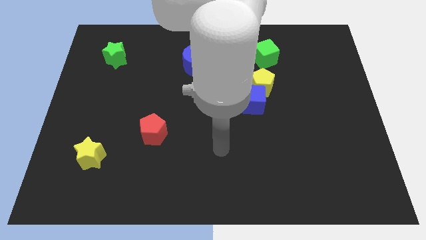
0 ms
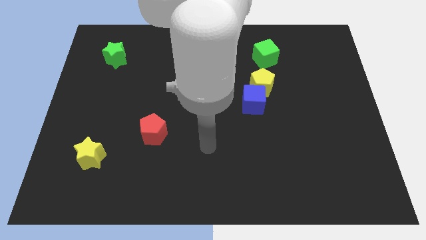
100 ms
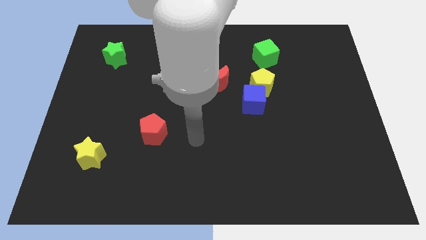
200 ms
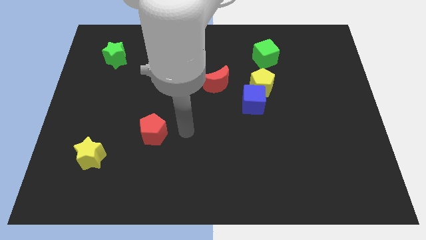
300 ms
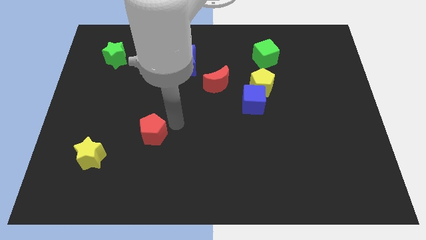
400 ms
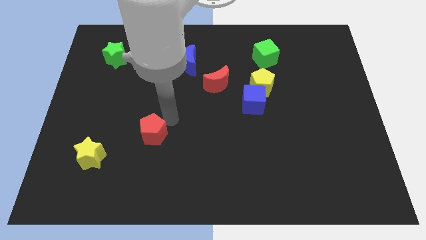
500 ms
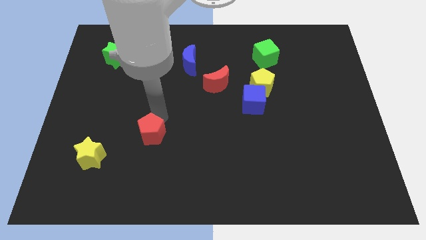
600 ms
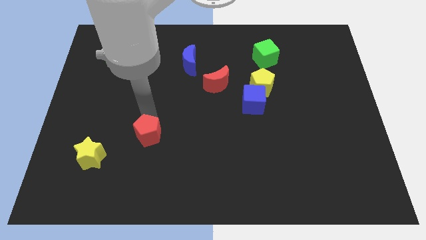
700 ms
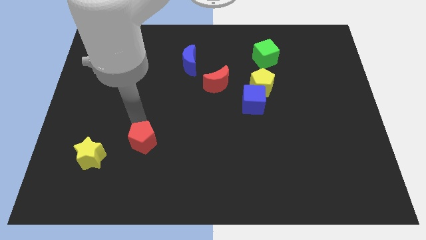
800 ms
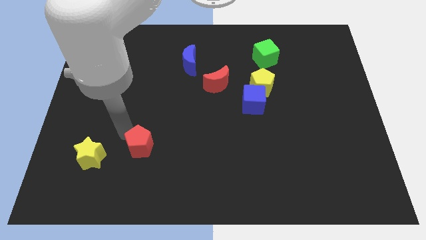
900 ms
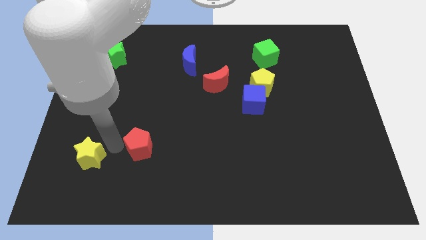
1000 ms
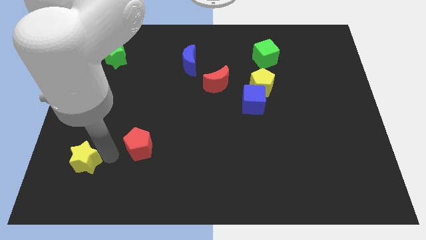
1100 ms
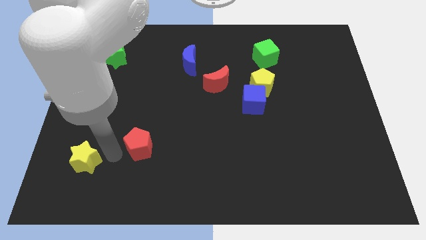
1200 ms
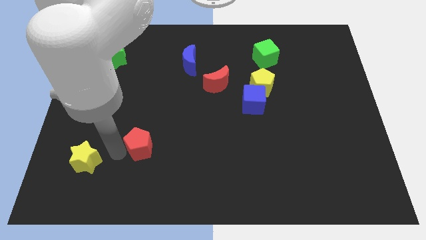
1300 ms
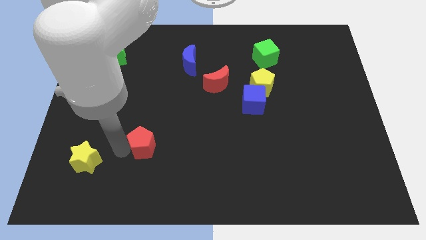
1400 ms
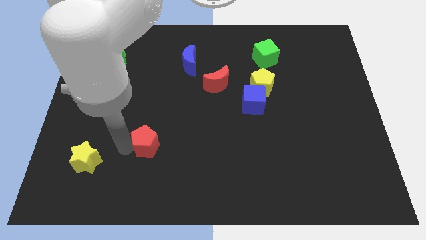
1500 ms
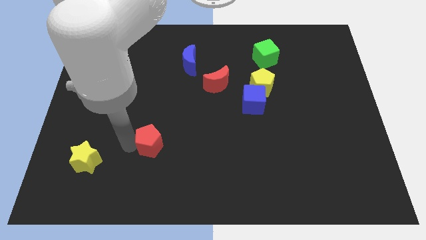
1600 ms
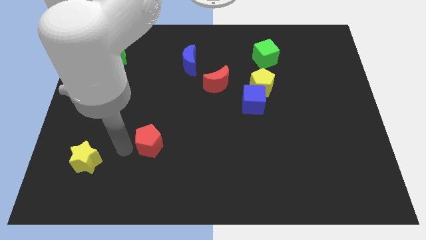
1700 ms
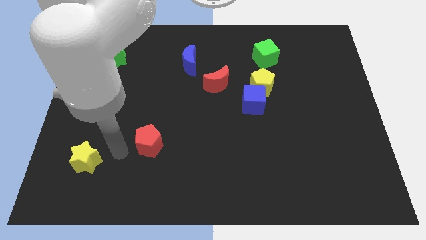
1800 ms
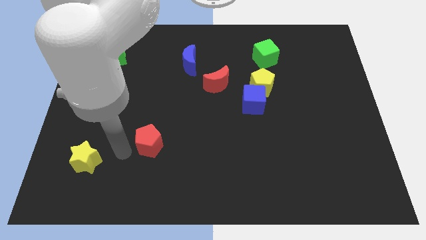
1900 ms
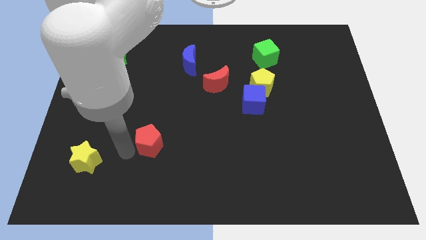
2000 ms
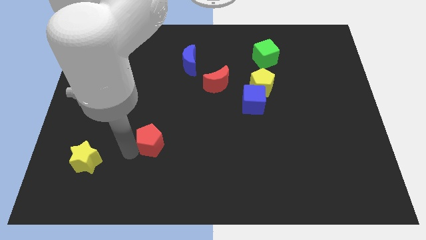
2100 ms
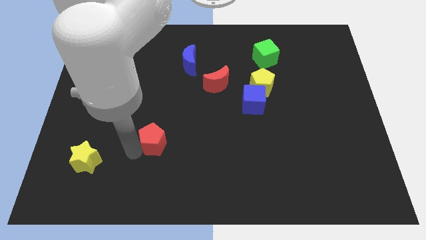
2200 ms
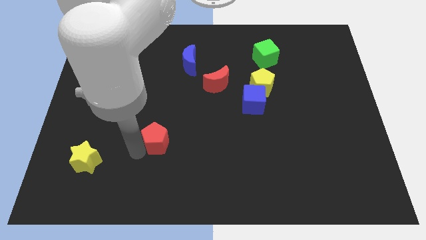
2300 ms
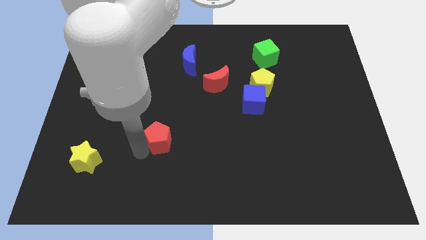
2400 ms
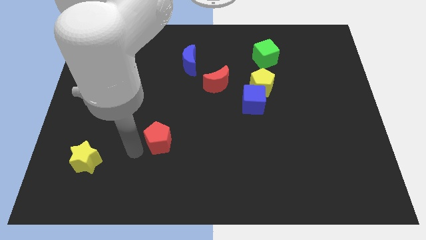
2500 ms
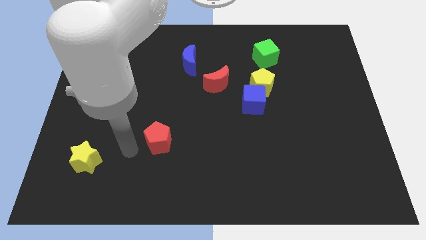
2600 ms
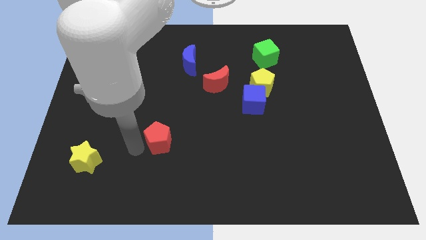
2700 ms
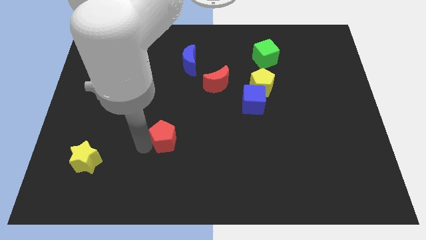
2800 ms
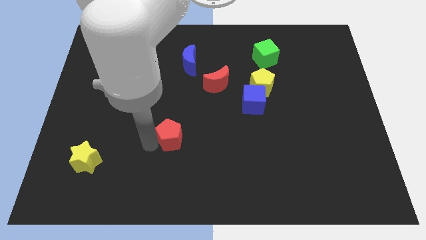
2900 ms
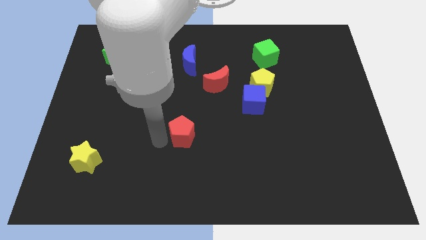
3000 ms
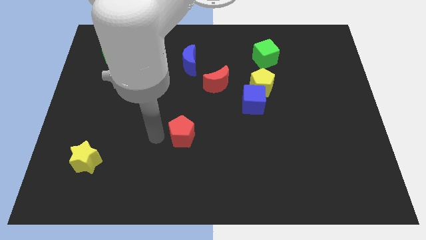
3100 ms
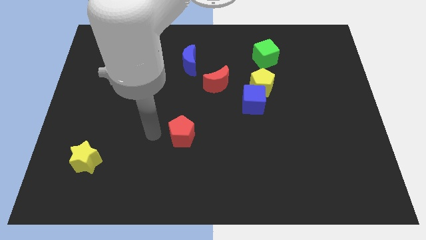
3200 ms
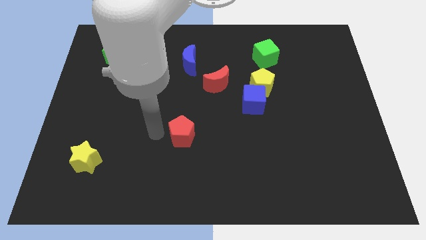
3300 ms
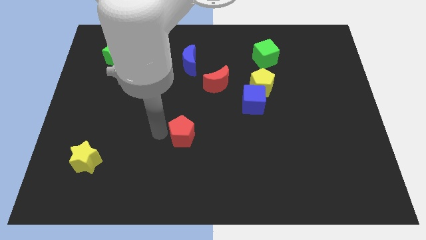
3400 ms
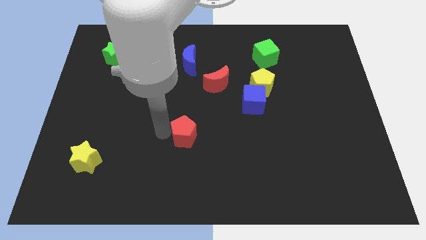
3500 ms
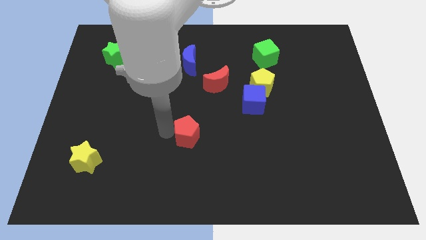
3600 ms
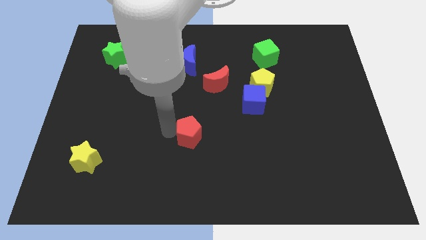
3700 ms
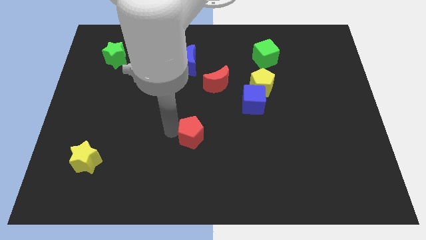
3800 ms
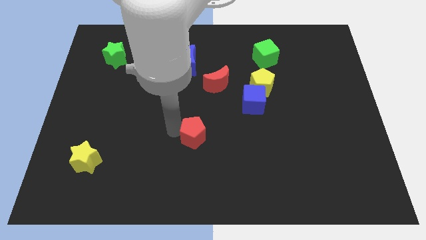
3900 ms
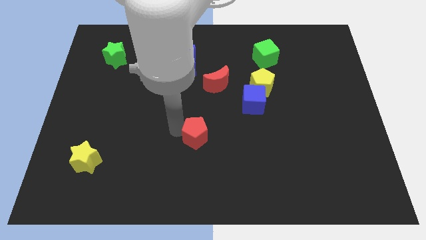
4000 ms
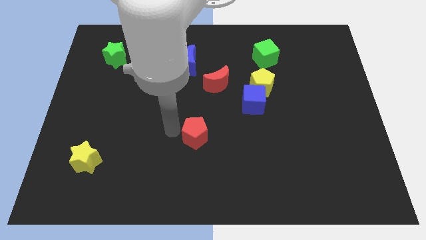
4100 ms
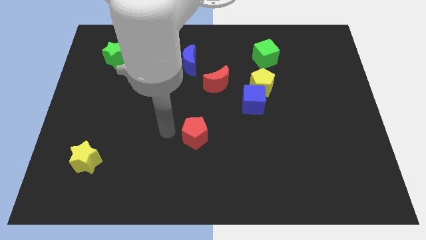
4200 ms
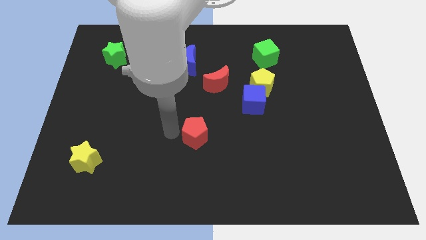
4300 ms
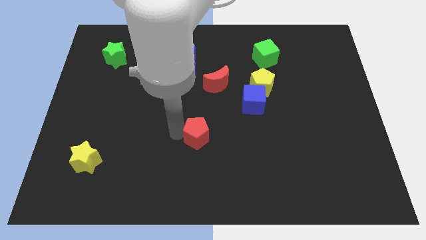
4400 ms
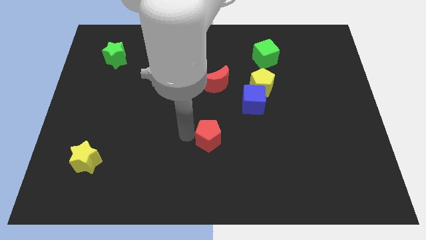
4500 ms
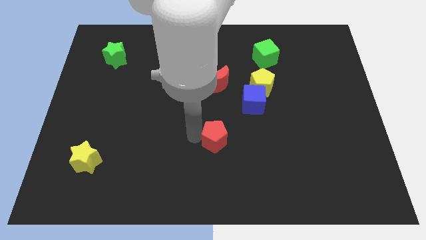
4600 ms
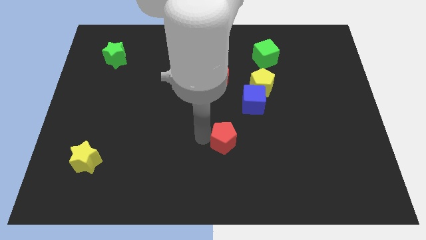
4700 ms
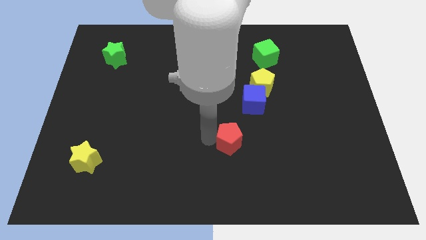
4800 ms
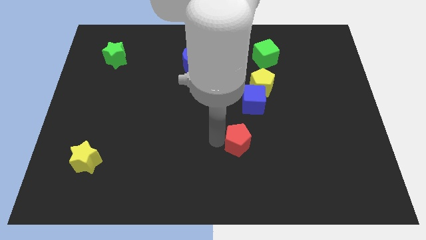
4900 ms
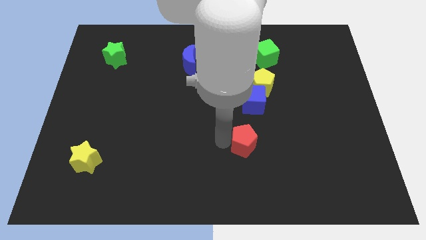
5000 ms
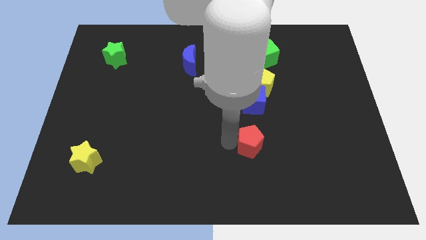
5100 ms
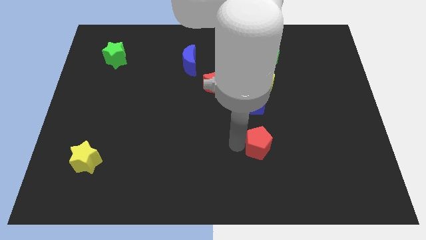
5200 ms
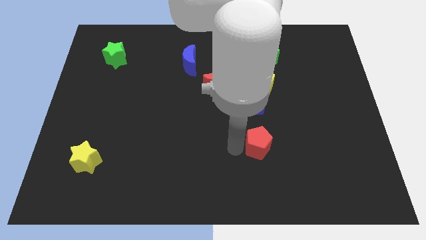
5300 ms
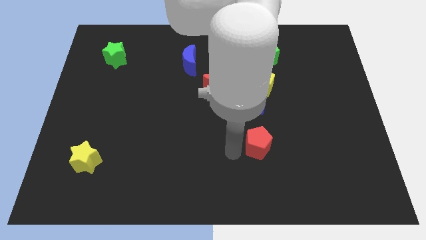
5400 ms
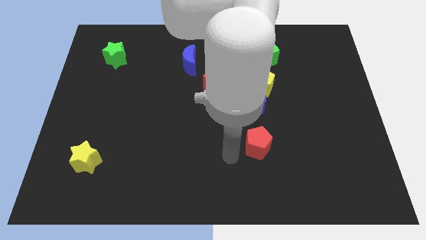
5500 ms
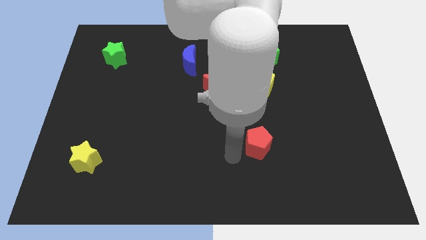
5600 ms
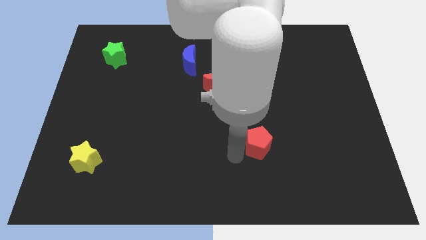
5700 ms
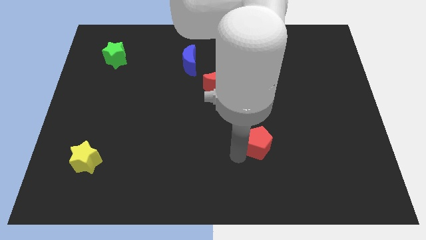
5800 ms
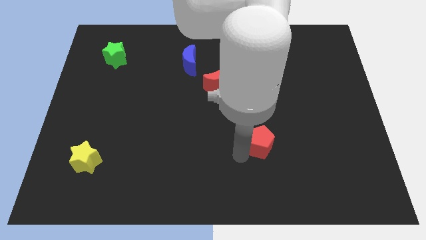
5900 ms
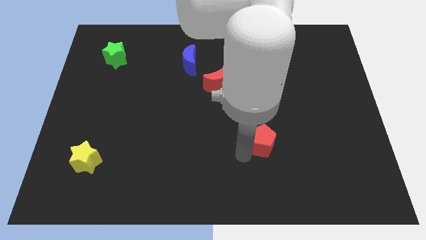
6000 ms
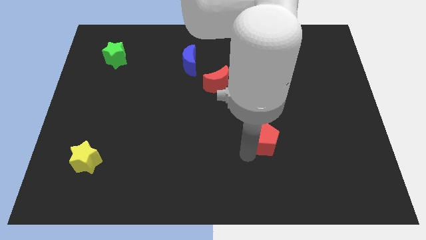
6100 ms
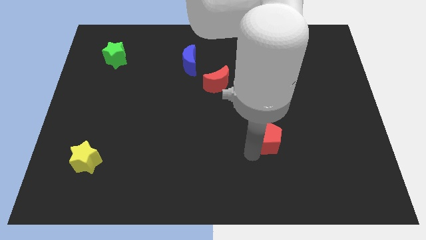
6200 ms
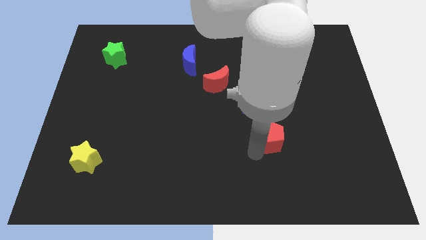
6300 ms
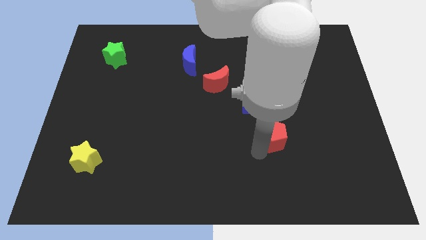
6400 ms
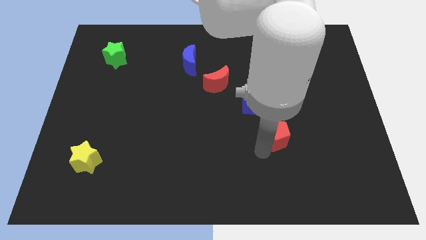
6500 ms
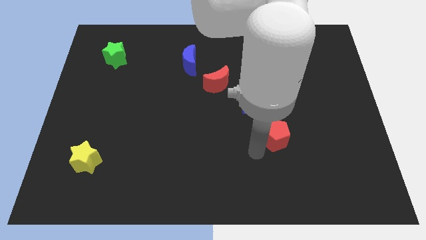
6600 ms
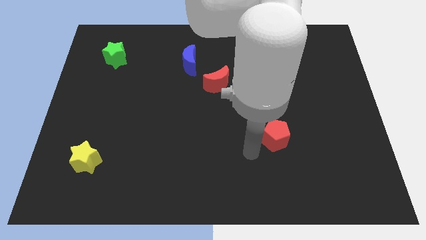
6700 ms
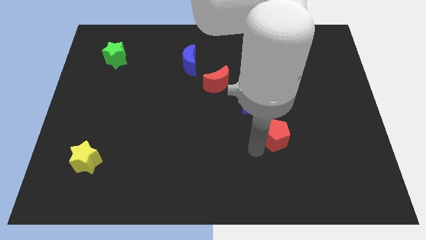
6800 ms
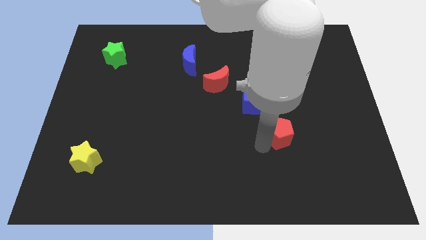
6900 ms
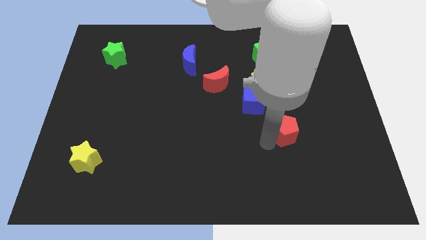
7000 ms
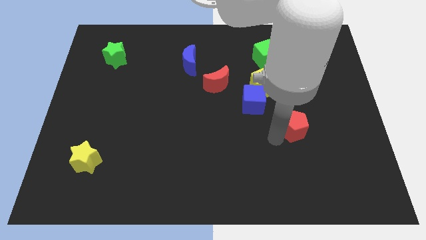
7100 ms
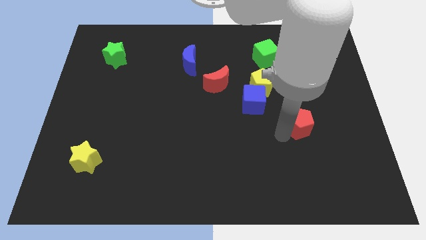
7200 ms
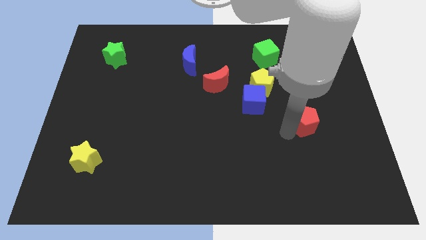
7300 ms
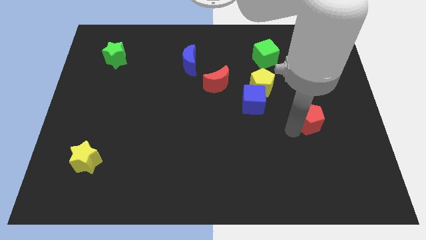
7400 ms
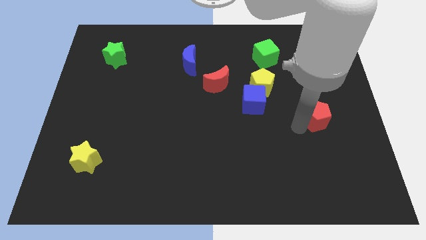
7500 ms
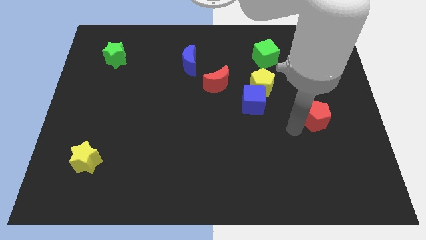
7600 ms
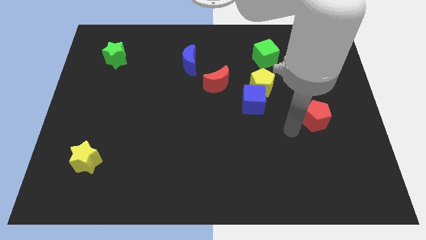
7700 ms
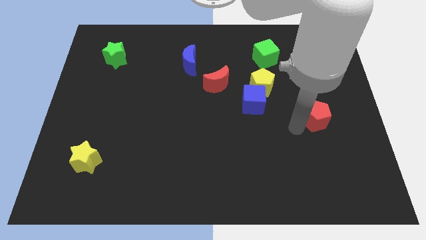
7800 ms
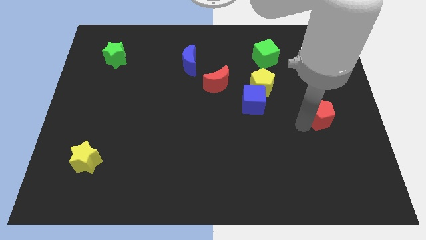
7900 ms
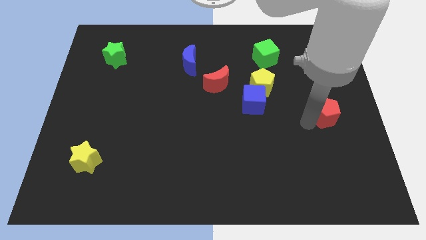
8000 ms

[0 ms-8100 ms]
put the red pentagon to the right side
